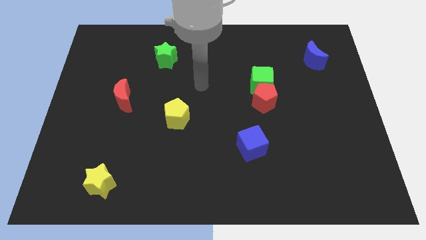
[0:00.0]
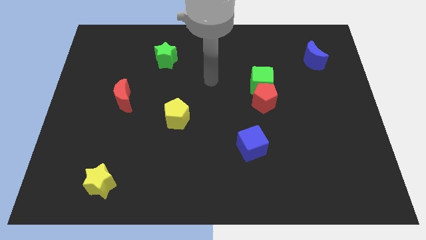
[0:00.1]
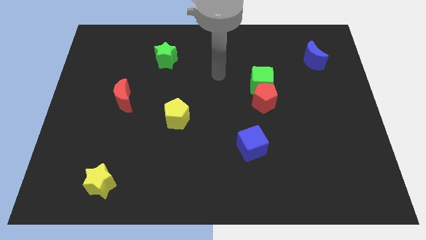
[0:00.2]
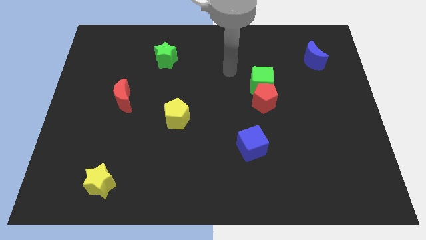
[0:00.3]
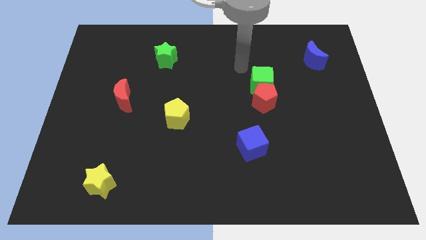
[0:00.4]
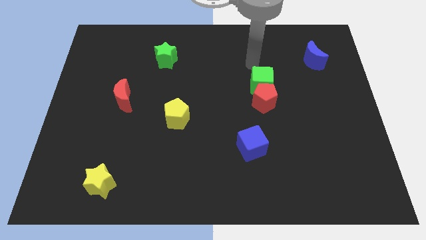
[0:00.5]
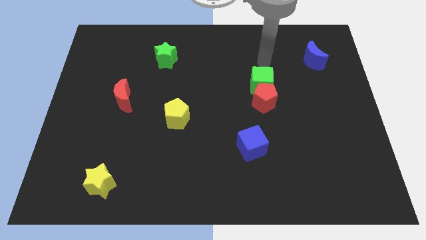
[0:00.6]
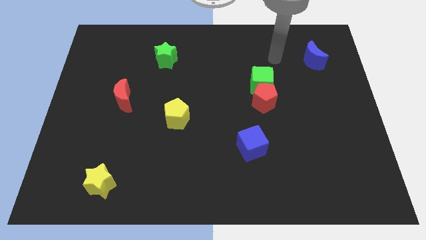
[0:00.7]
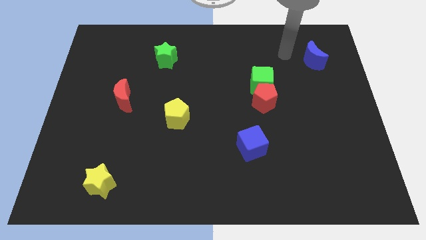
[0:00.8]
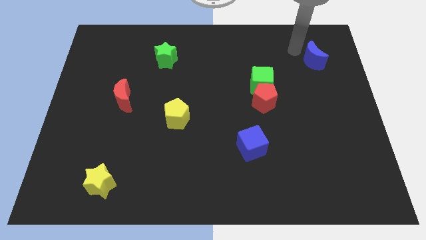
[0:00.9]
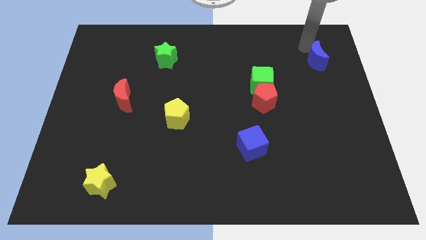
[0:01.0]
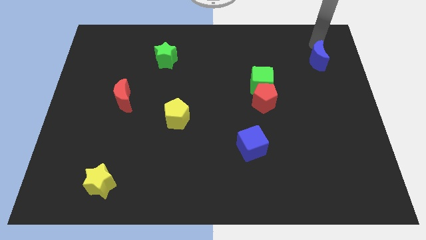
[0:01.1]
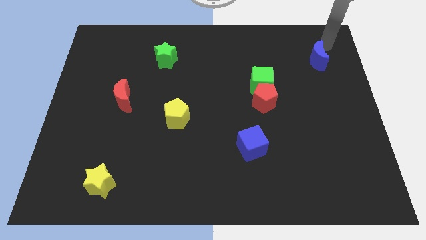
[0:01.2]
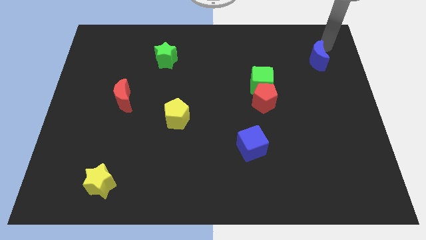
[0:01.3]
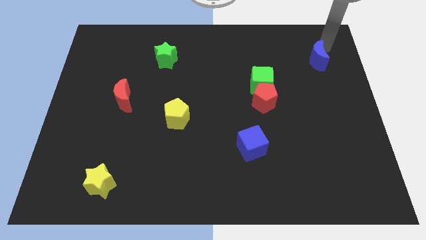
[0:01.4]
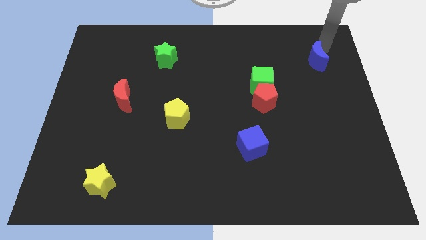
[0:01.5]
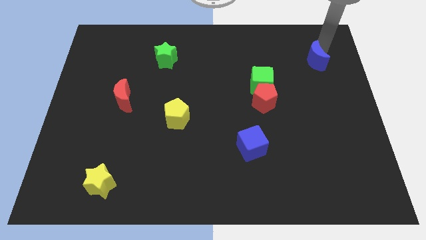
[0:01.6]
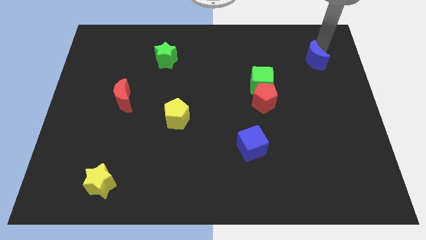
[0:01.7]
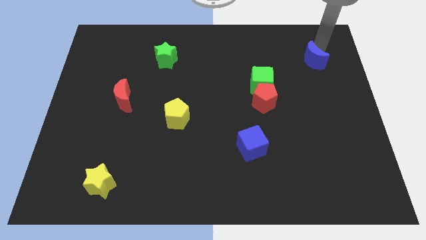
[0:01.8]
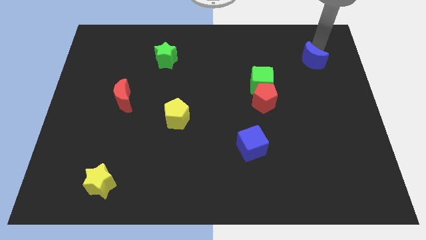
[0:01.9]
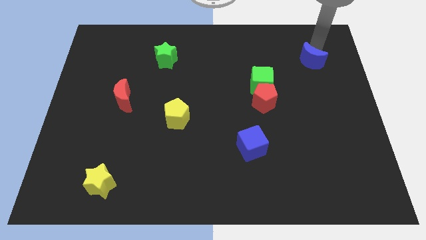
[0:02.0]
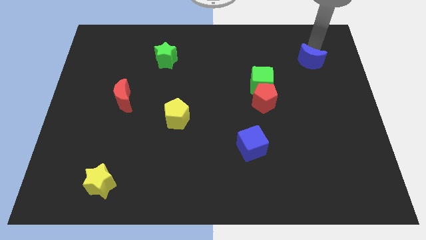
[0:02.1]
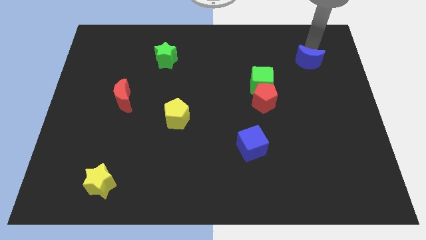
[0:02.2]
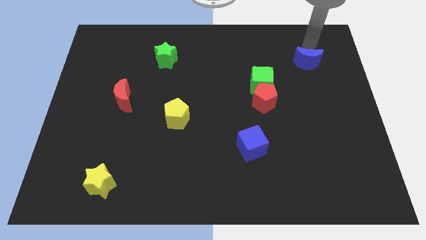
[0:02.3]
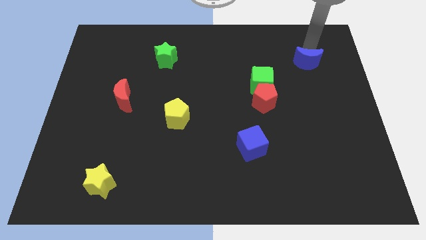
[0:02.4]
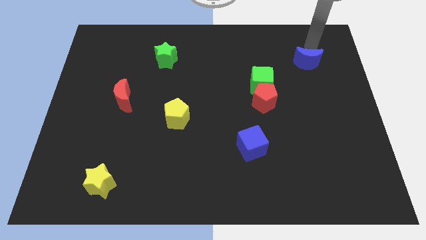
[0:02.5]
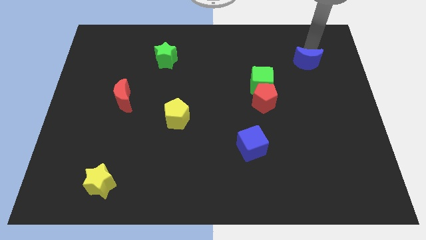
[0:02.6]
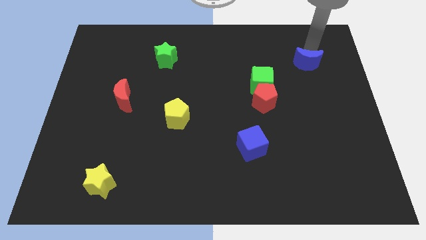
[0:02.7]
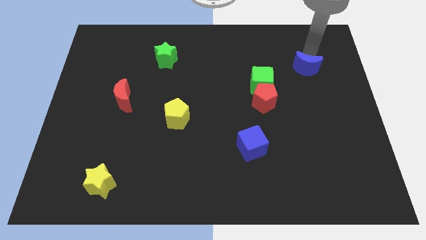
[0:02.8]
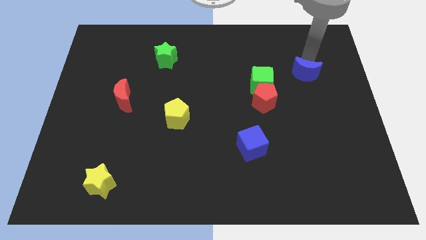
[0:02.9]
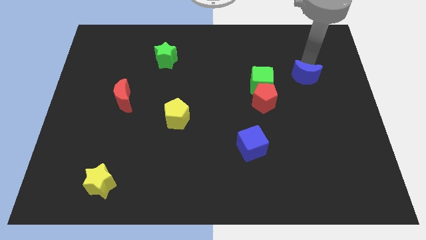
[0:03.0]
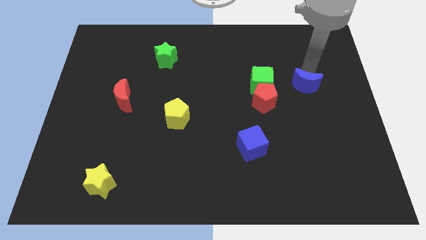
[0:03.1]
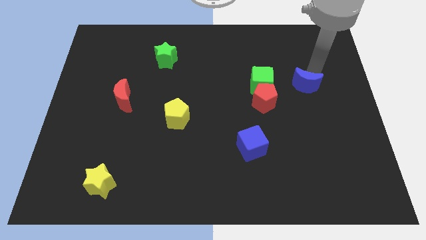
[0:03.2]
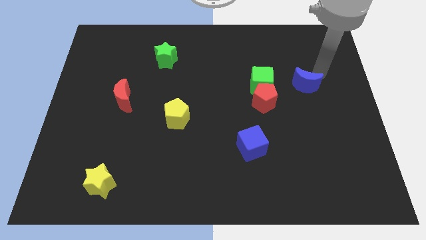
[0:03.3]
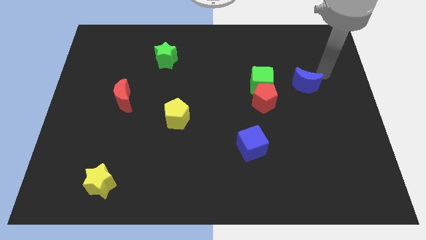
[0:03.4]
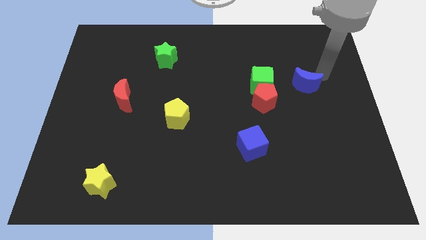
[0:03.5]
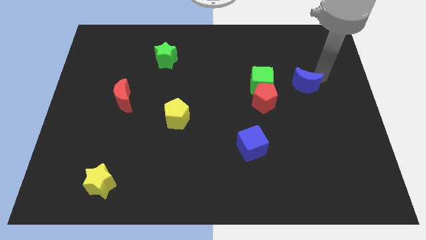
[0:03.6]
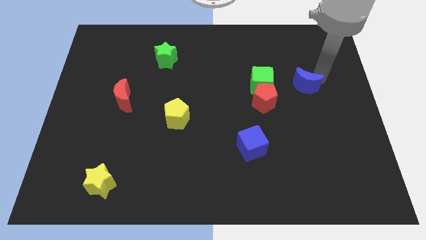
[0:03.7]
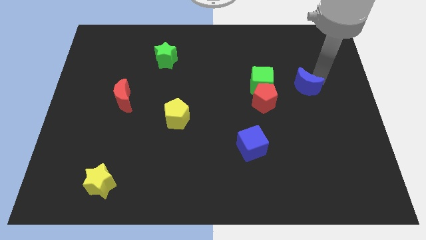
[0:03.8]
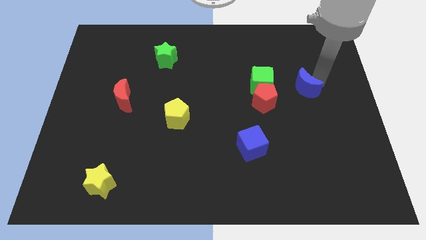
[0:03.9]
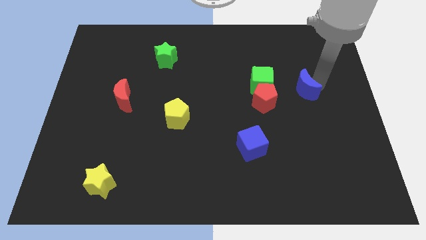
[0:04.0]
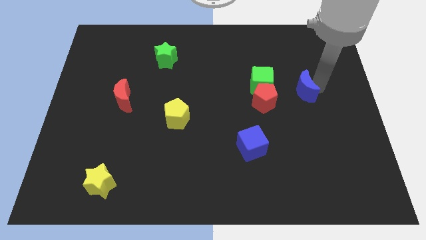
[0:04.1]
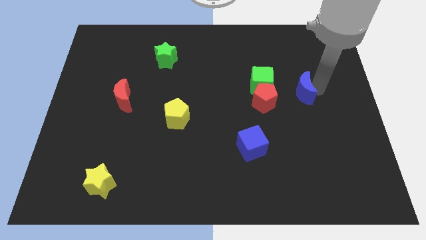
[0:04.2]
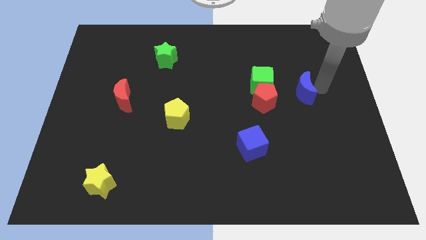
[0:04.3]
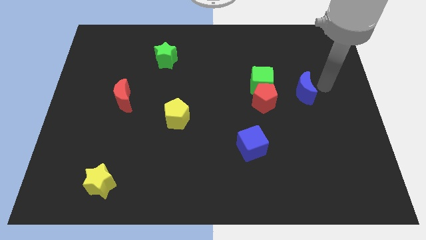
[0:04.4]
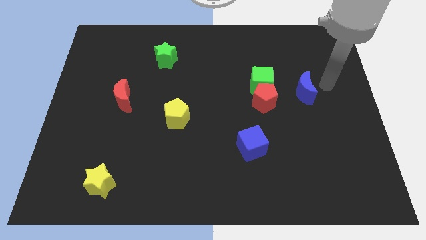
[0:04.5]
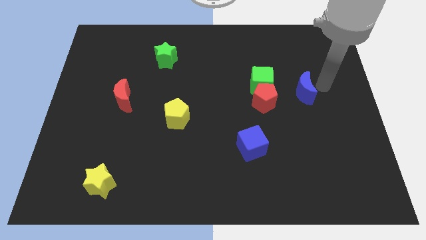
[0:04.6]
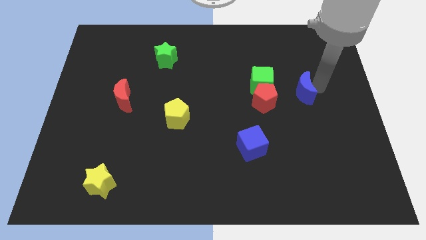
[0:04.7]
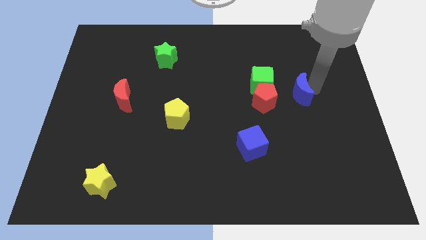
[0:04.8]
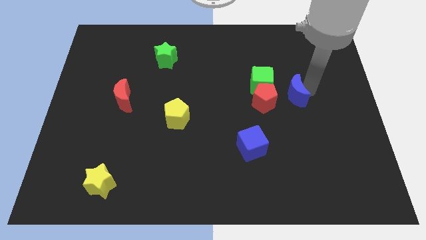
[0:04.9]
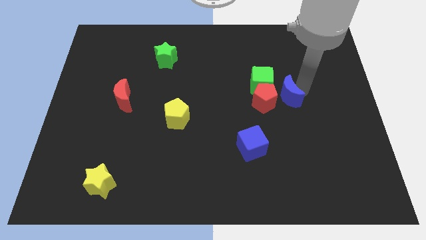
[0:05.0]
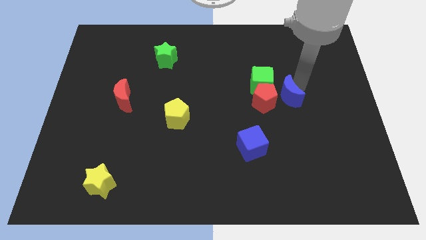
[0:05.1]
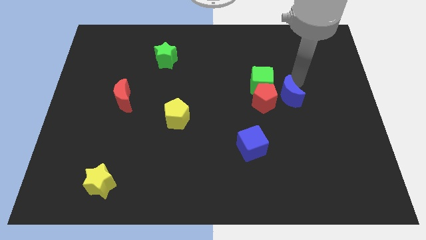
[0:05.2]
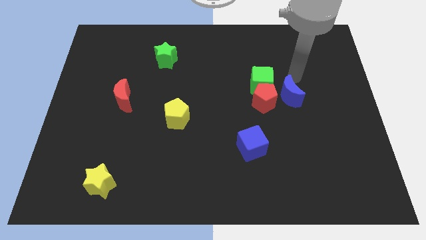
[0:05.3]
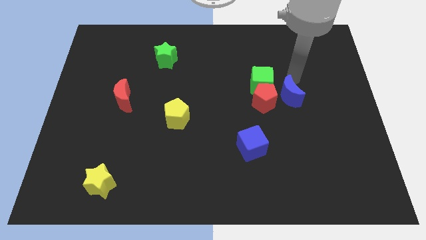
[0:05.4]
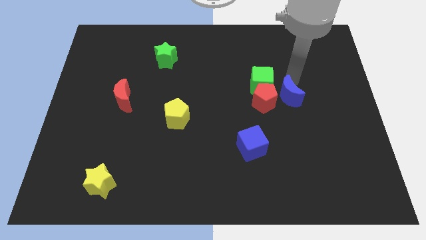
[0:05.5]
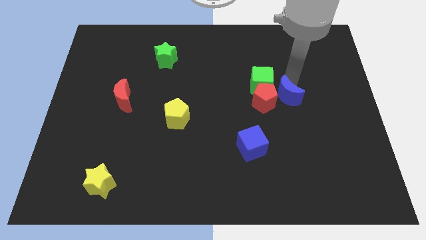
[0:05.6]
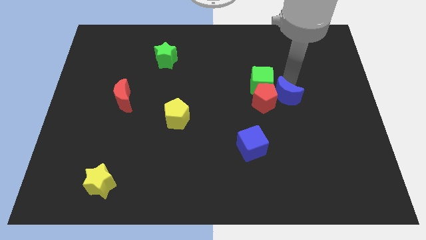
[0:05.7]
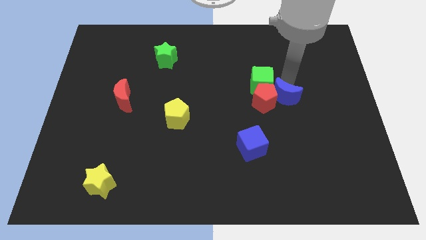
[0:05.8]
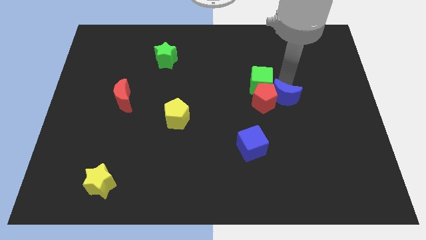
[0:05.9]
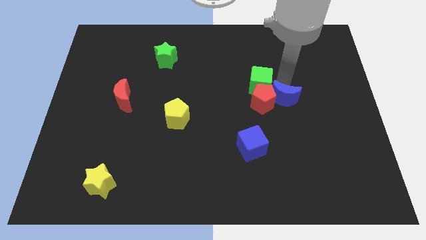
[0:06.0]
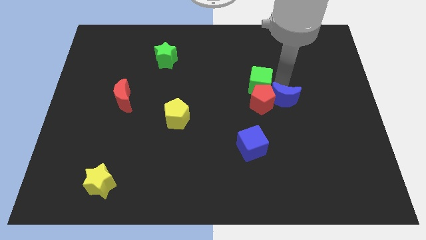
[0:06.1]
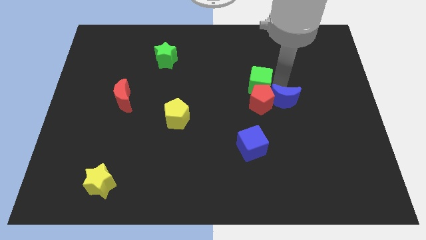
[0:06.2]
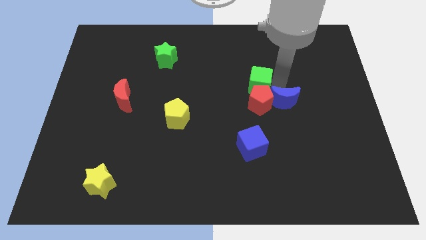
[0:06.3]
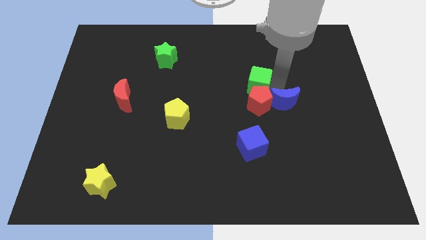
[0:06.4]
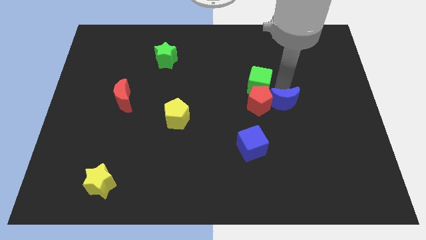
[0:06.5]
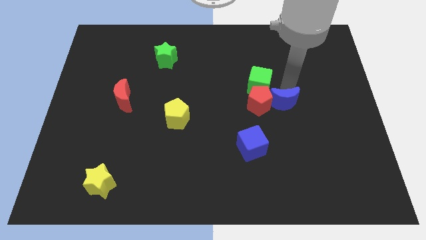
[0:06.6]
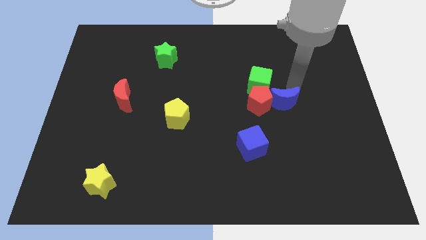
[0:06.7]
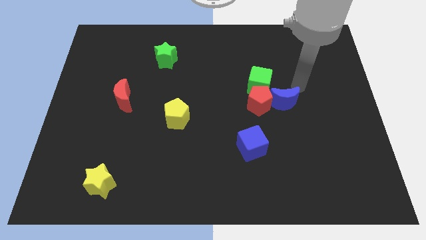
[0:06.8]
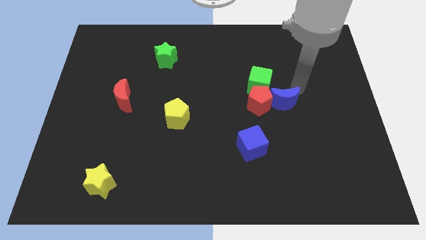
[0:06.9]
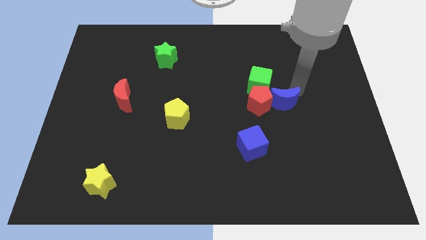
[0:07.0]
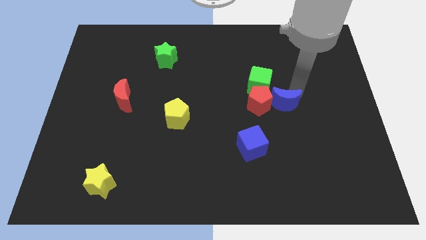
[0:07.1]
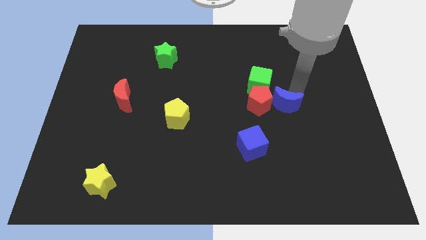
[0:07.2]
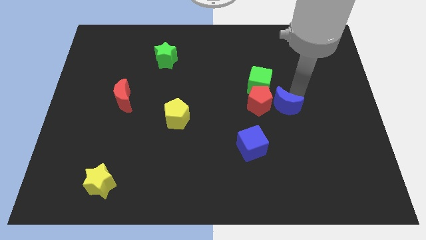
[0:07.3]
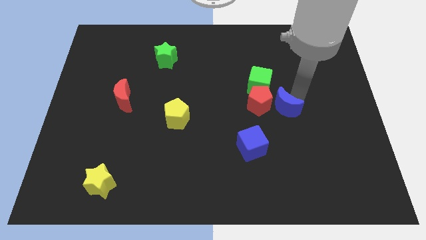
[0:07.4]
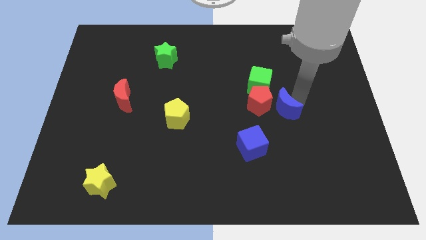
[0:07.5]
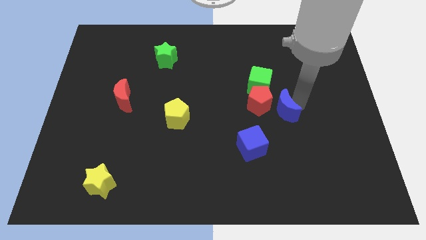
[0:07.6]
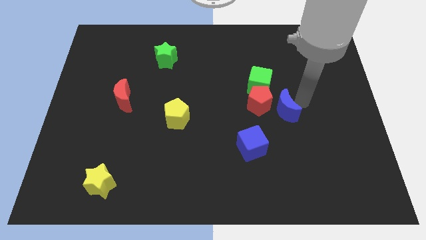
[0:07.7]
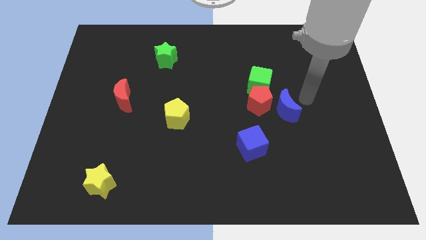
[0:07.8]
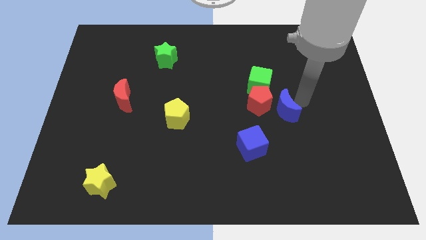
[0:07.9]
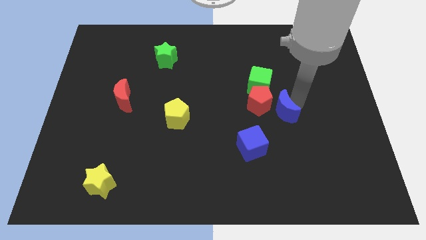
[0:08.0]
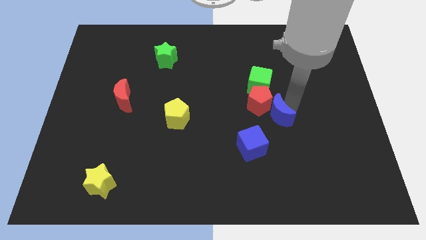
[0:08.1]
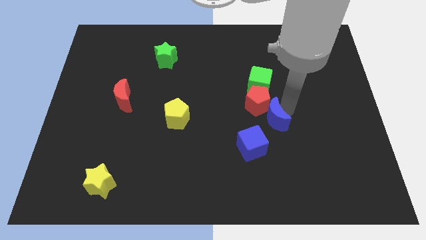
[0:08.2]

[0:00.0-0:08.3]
slide the blue moon down and left
